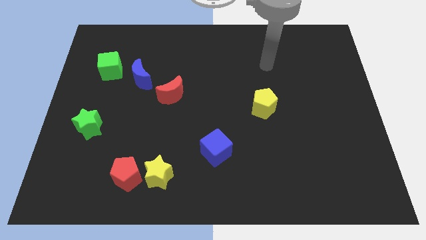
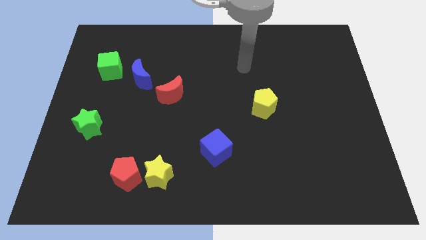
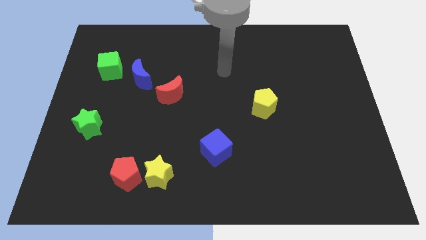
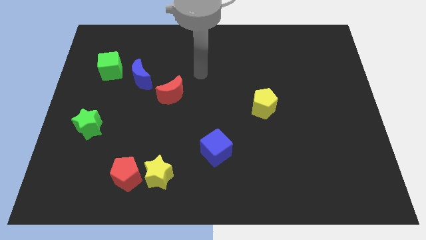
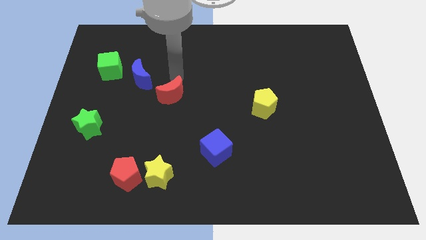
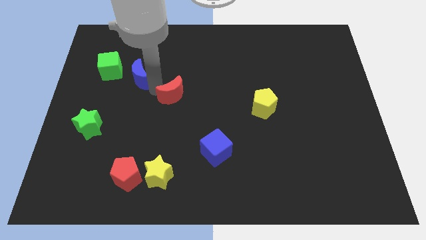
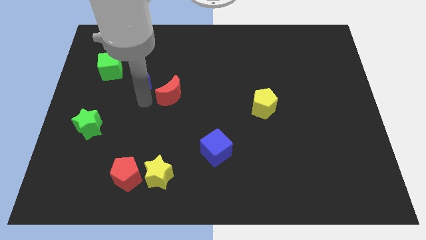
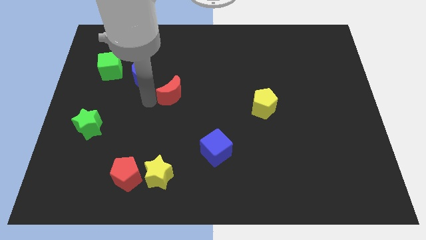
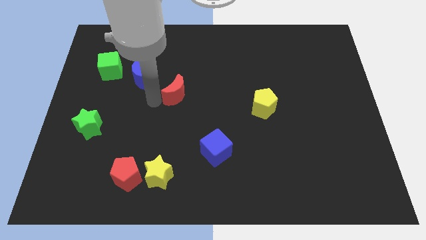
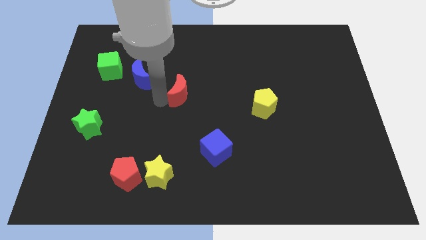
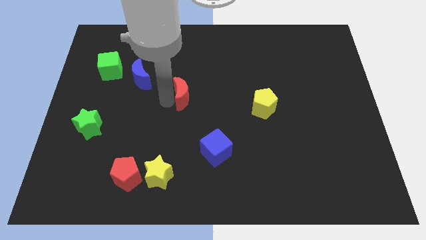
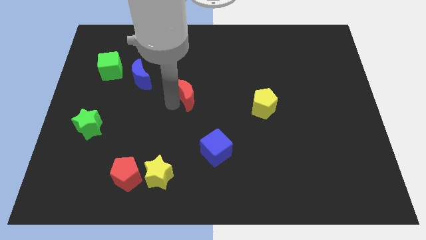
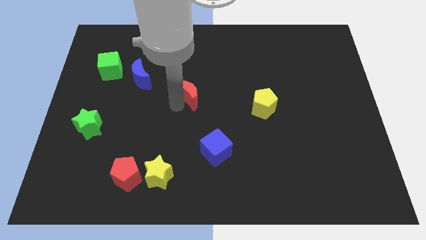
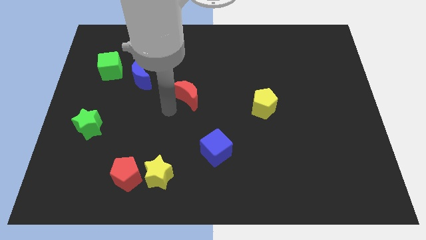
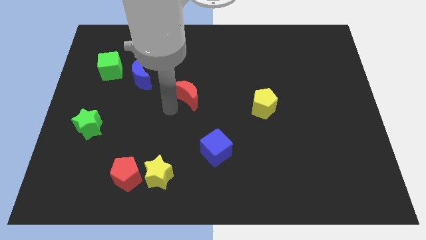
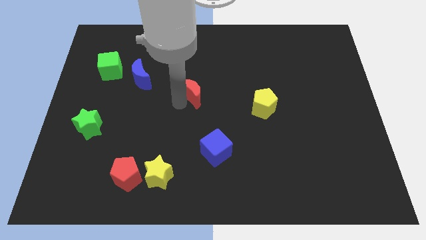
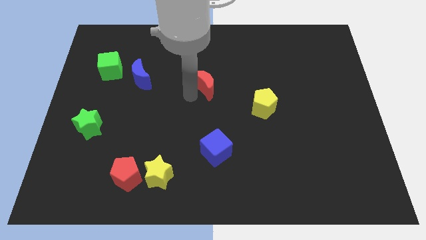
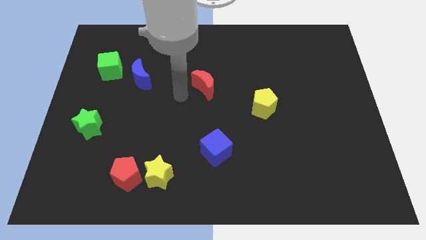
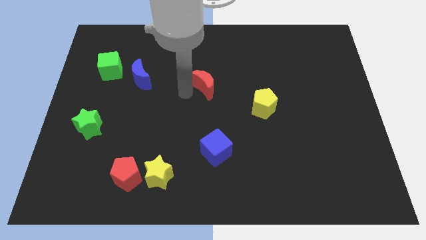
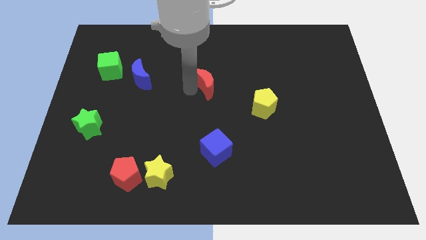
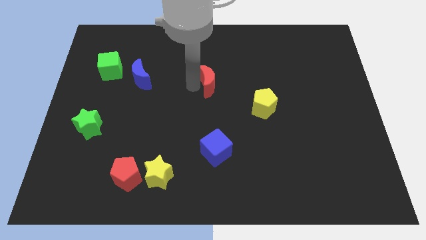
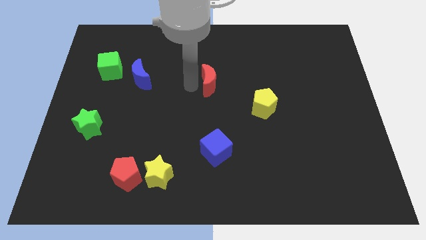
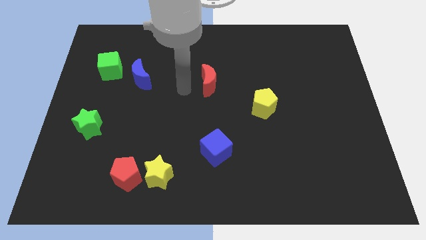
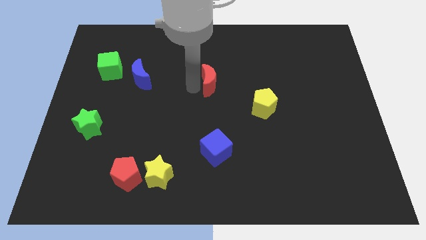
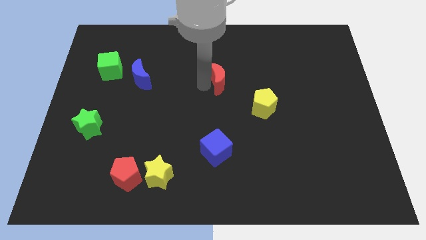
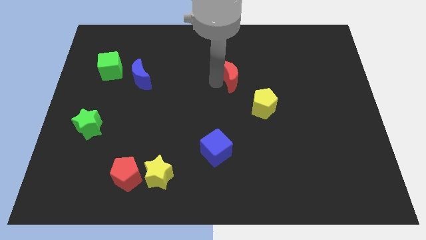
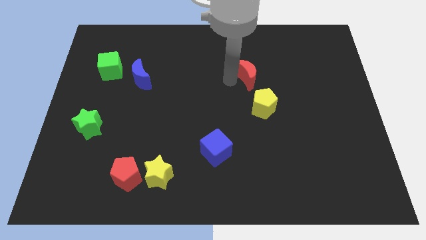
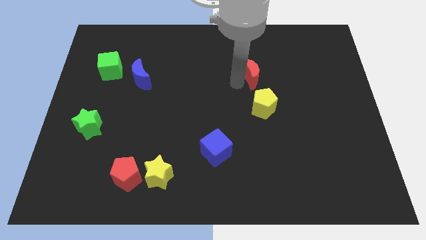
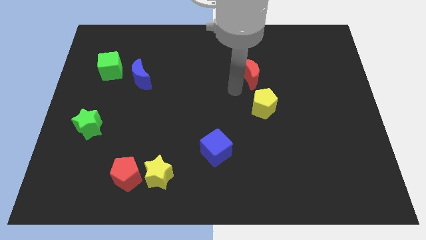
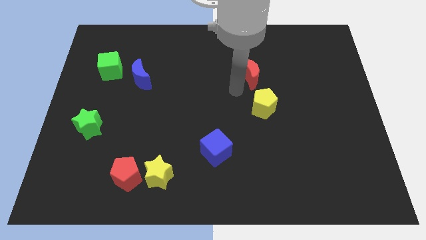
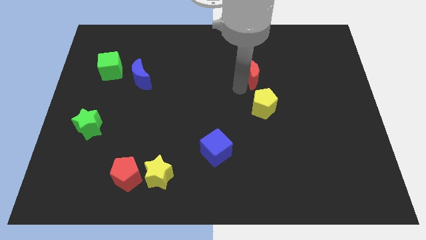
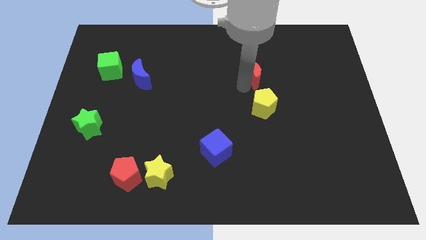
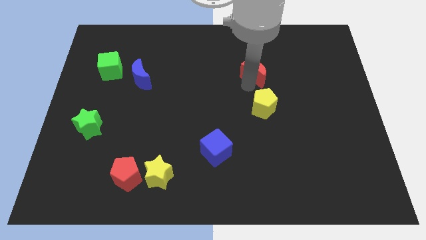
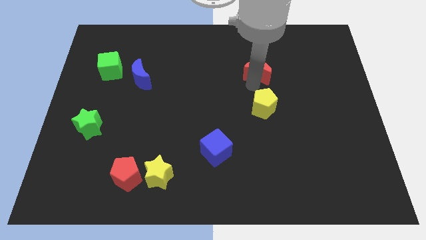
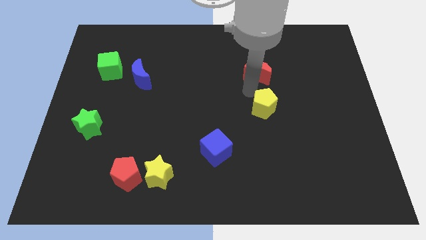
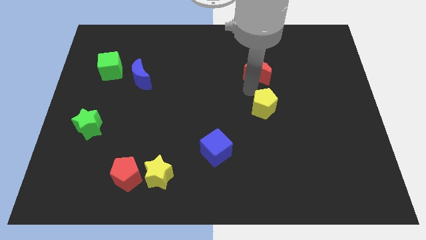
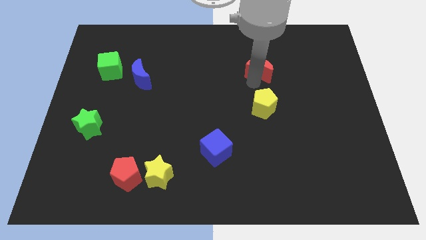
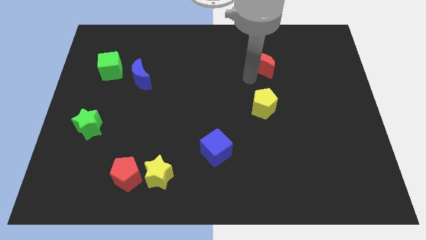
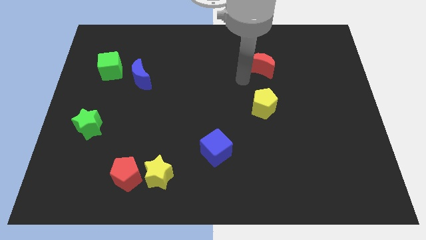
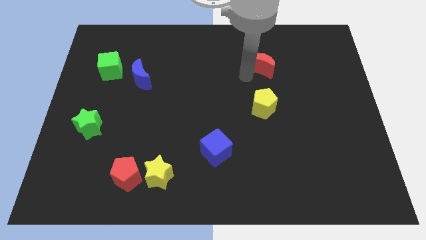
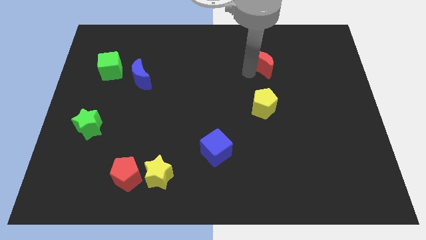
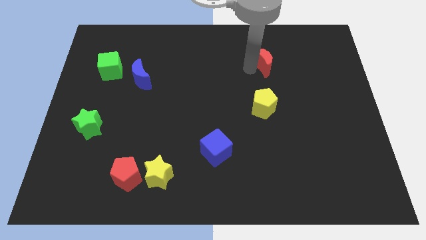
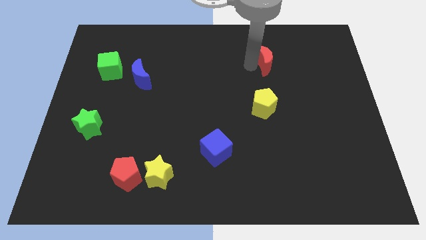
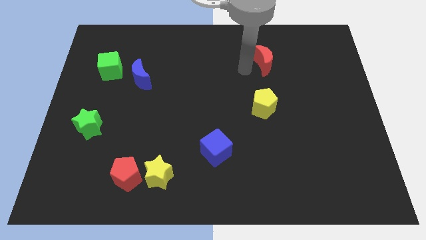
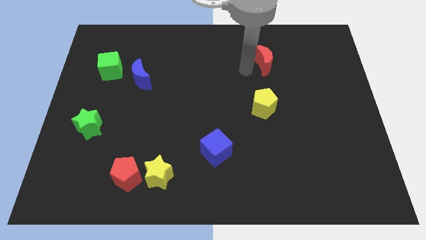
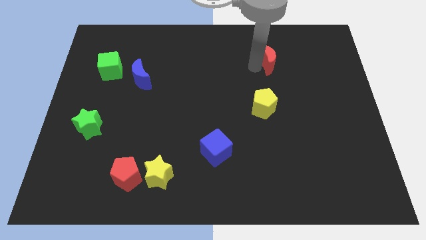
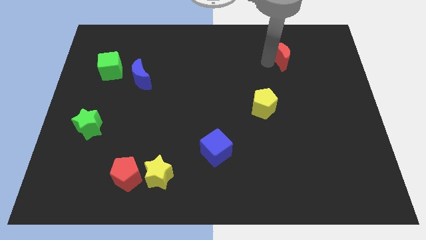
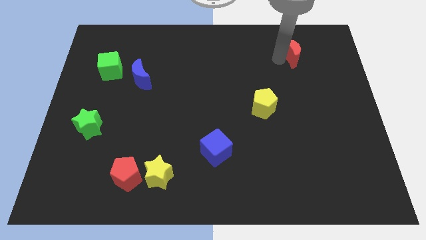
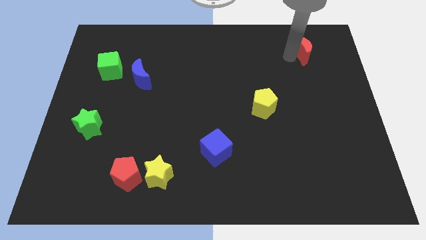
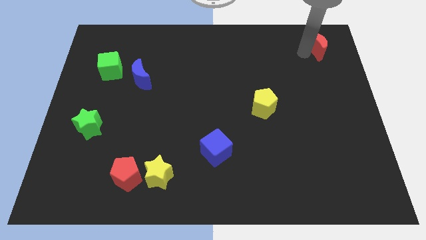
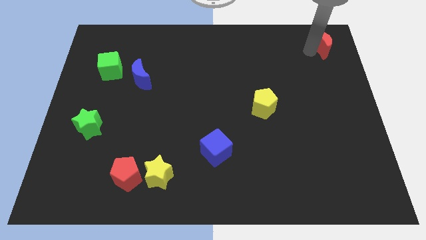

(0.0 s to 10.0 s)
push the red moon to the top right

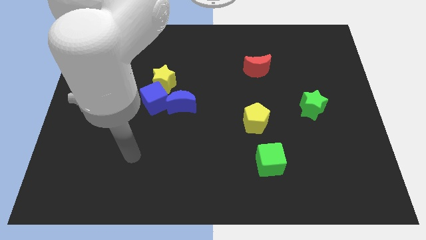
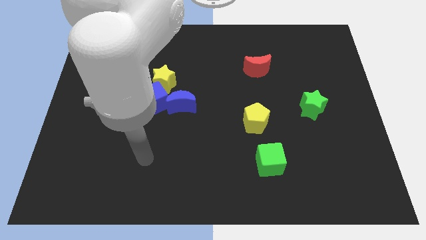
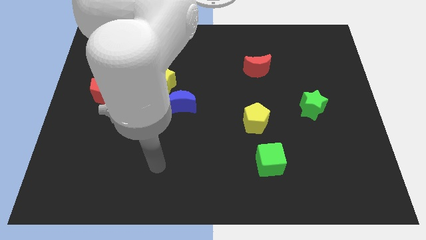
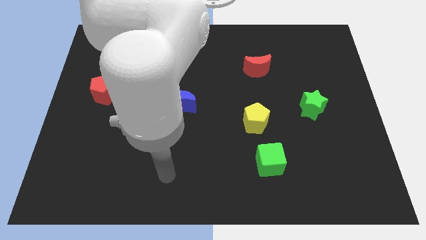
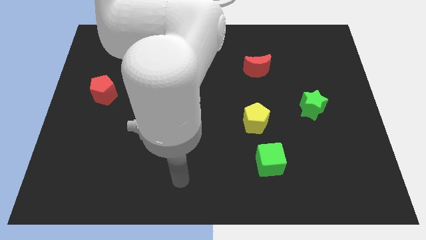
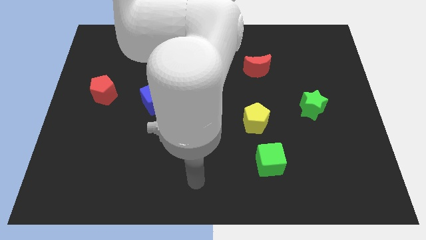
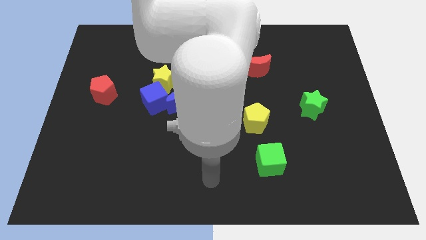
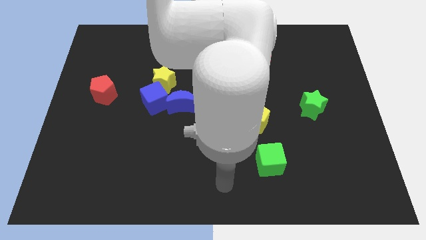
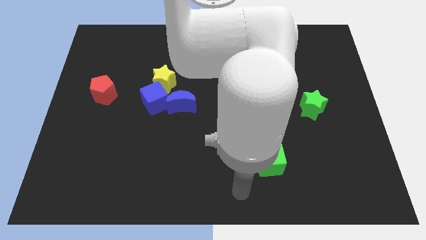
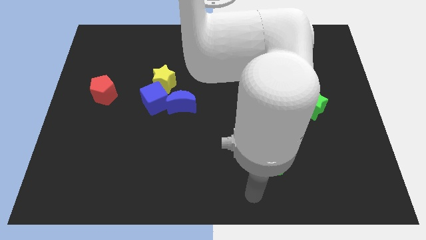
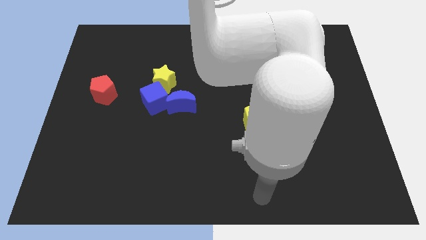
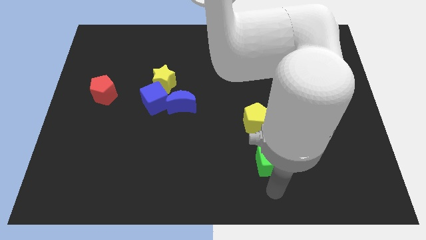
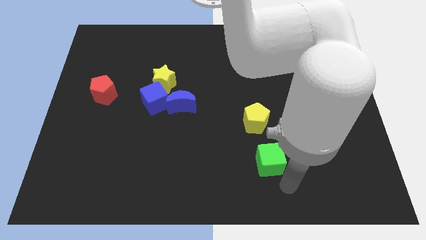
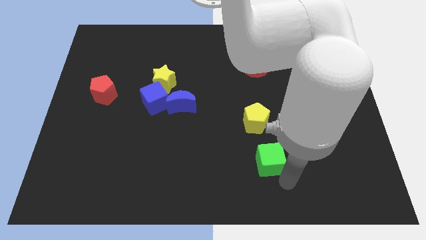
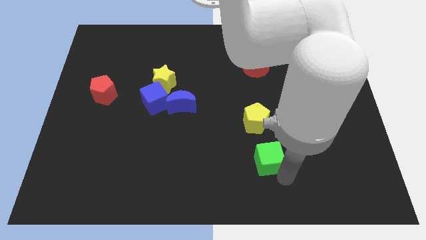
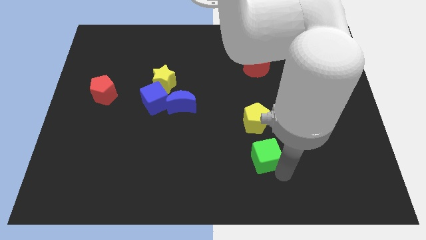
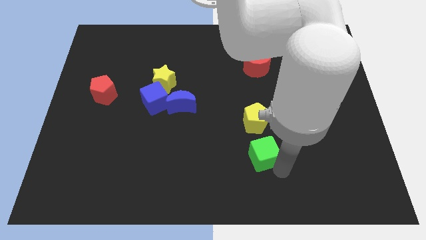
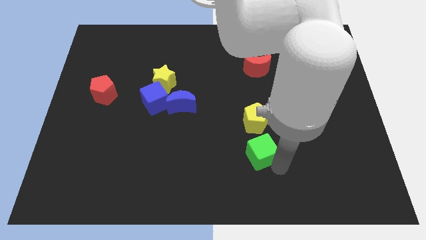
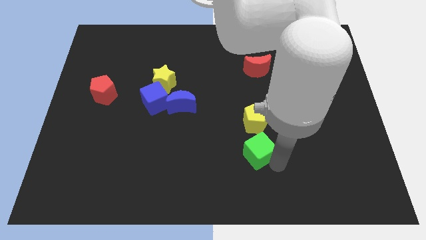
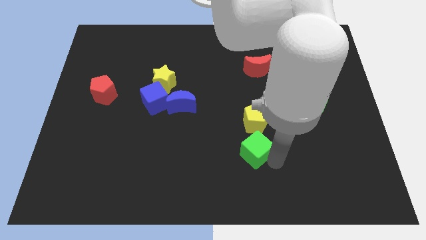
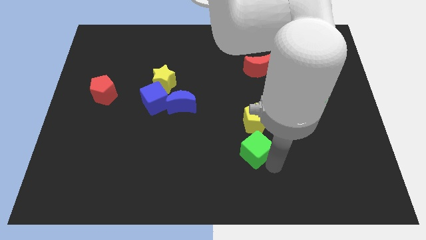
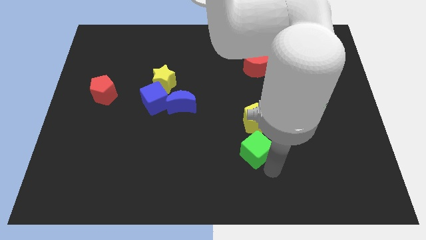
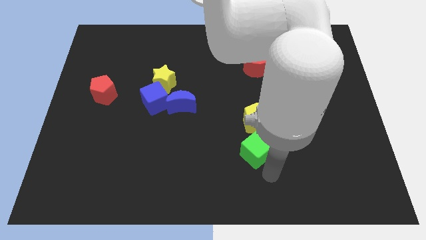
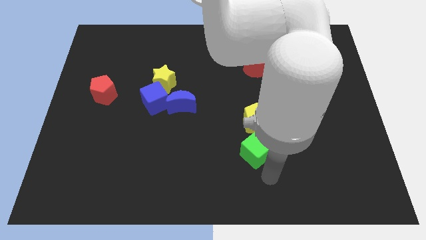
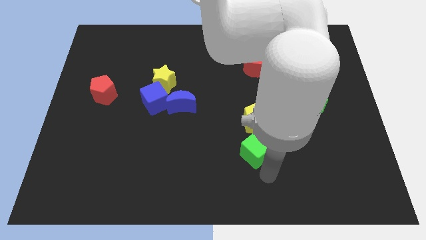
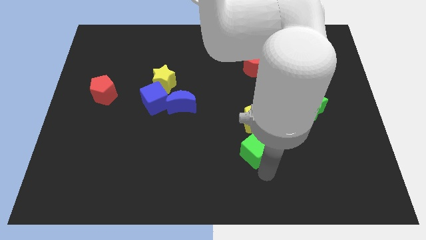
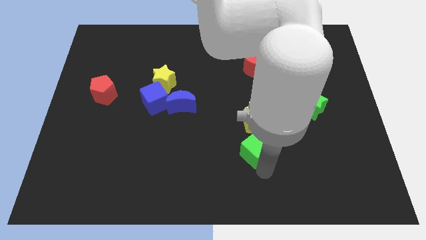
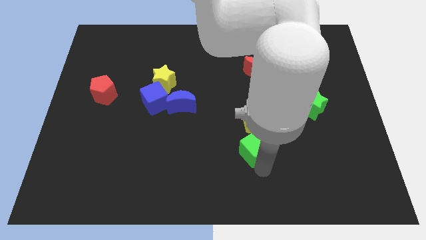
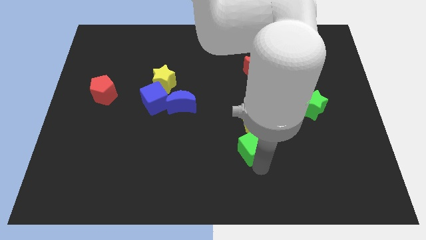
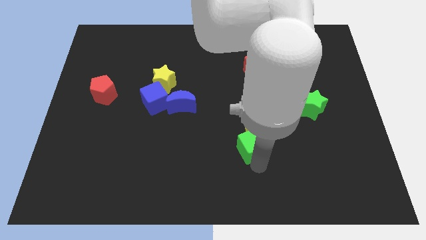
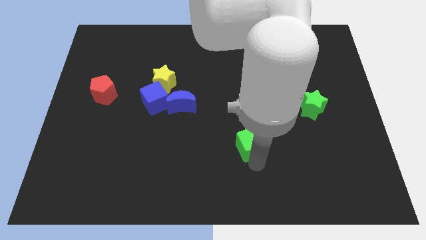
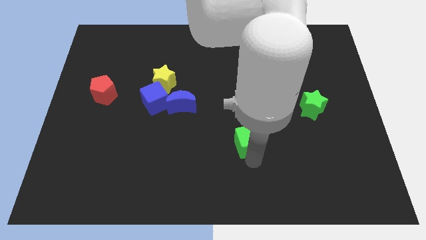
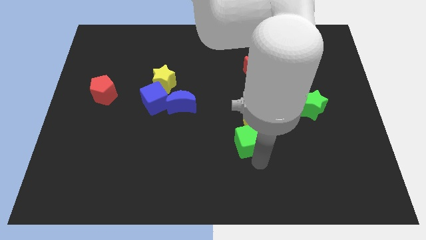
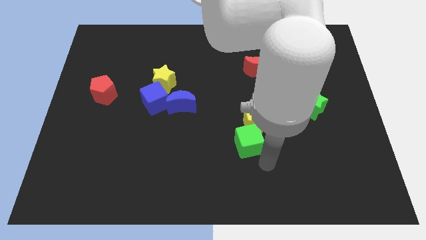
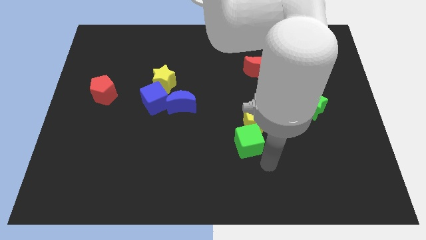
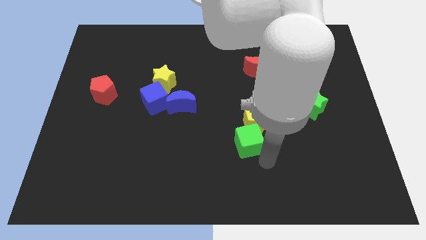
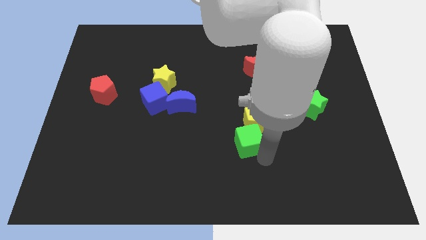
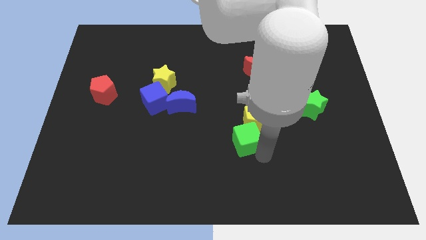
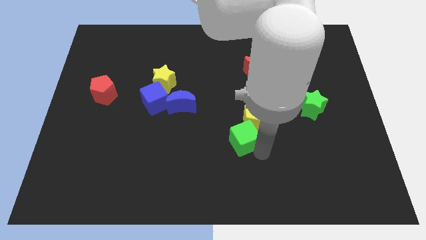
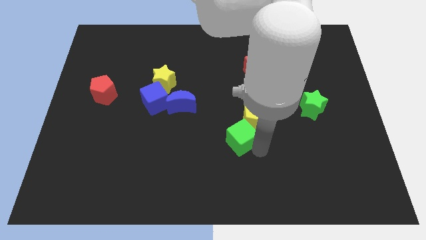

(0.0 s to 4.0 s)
push the green cube to the center
